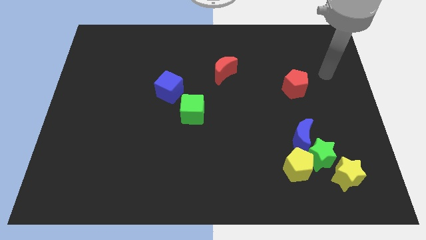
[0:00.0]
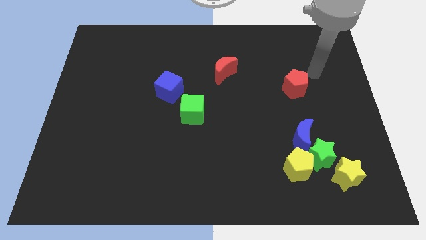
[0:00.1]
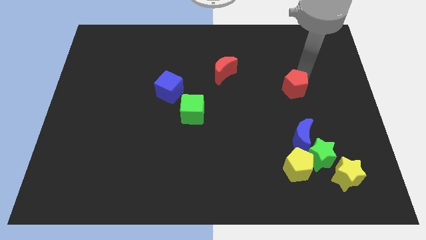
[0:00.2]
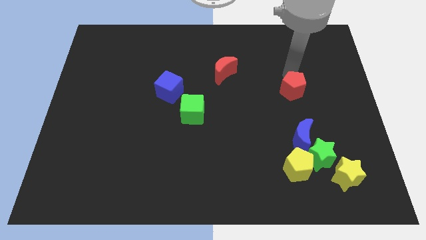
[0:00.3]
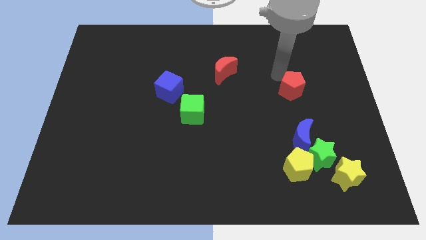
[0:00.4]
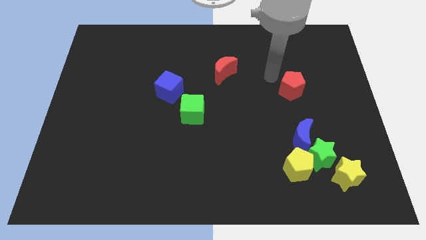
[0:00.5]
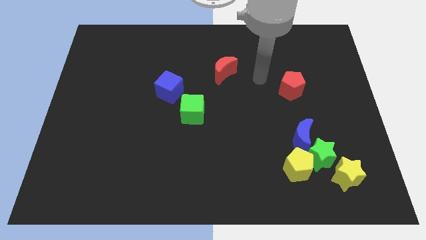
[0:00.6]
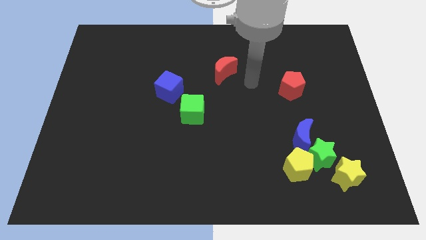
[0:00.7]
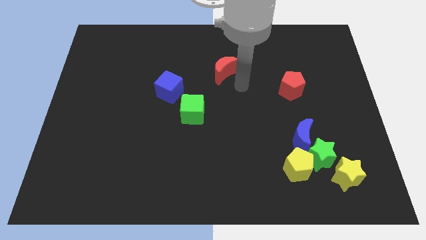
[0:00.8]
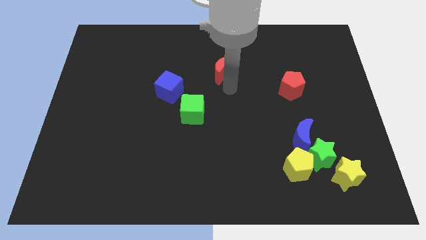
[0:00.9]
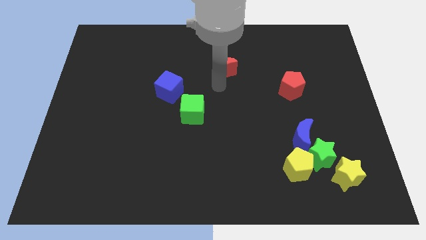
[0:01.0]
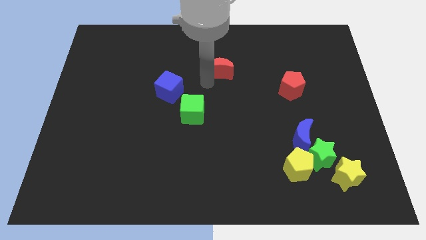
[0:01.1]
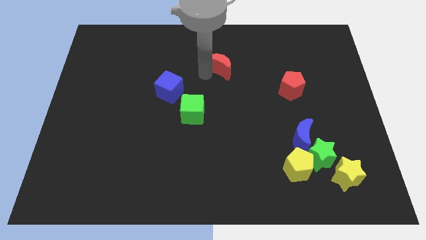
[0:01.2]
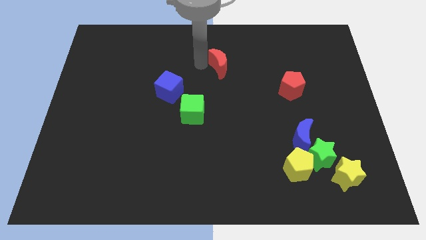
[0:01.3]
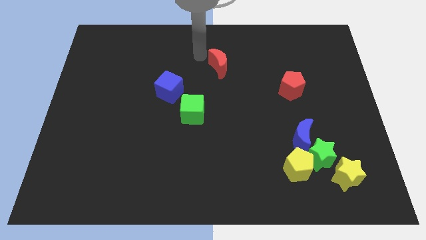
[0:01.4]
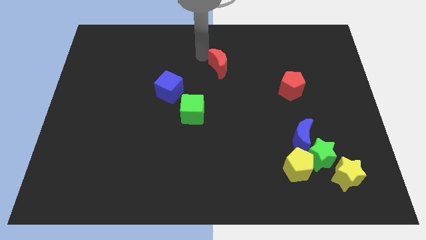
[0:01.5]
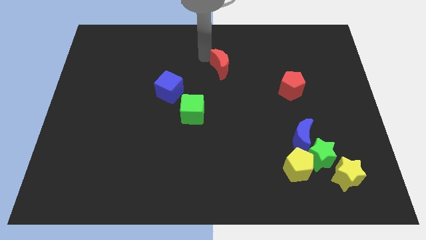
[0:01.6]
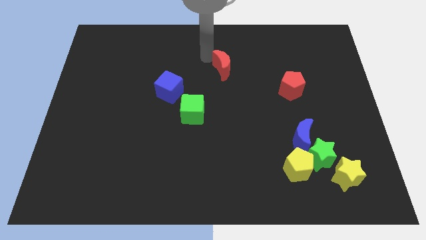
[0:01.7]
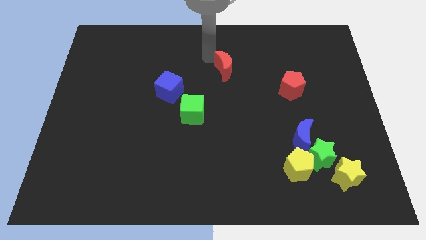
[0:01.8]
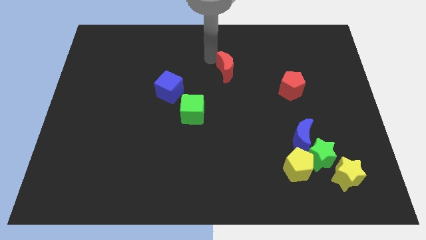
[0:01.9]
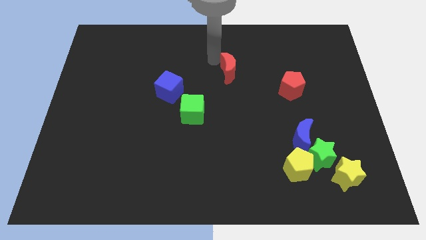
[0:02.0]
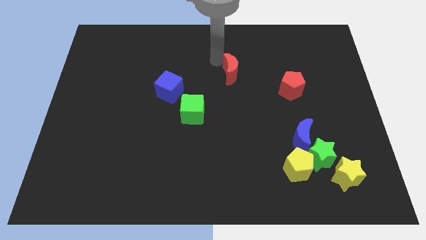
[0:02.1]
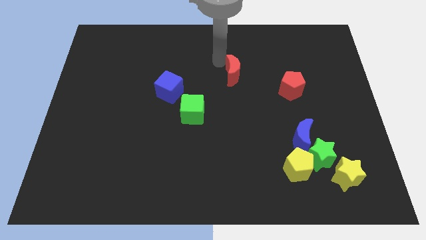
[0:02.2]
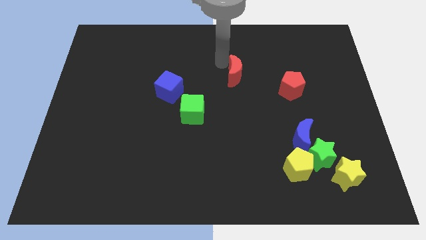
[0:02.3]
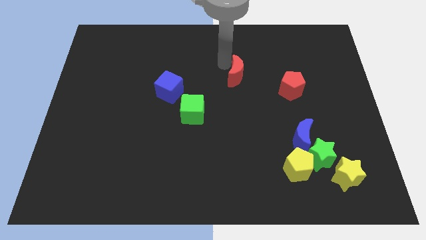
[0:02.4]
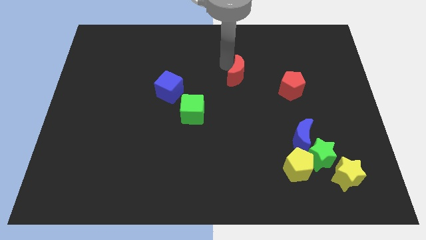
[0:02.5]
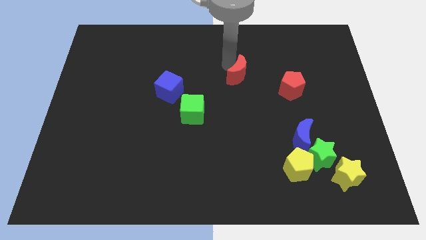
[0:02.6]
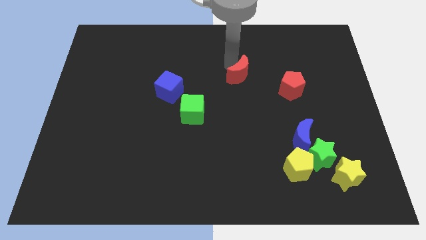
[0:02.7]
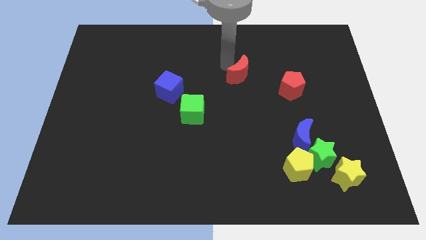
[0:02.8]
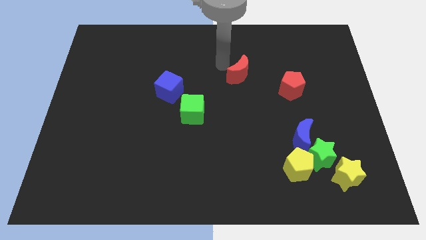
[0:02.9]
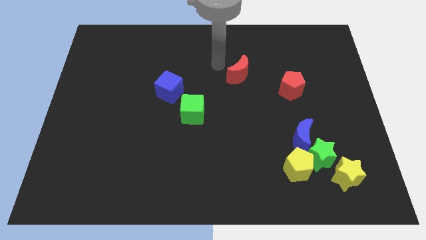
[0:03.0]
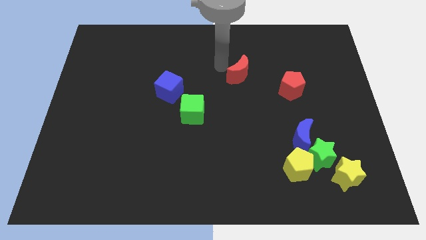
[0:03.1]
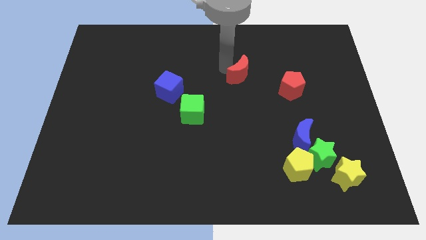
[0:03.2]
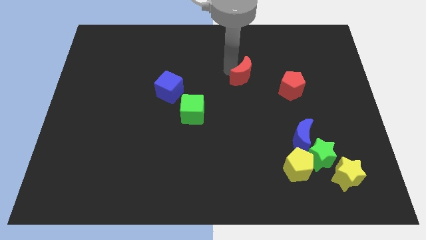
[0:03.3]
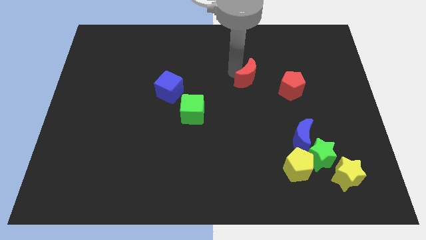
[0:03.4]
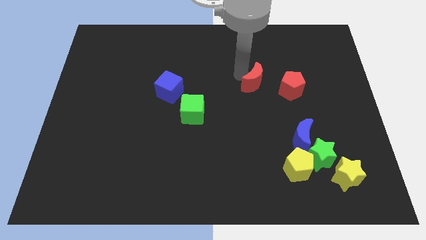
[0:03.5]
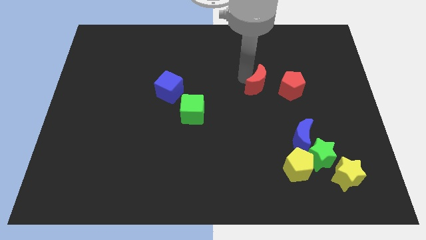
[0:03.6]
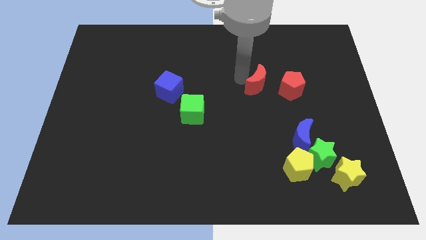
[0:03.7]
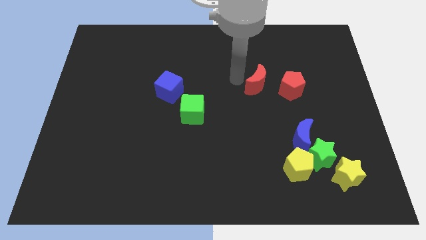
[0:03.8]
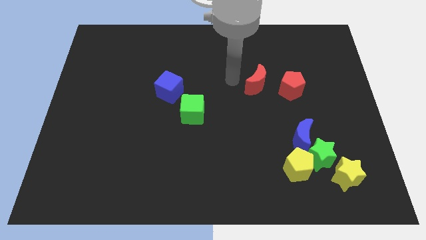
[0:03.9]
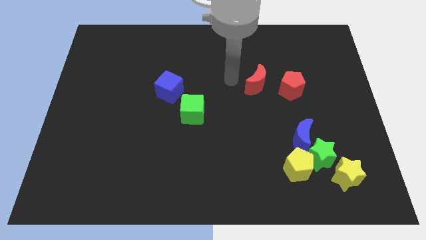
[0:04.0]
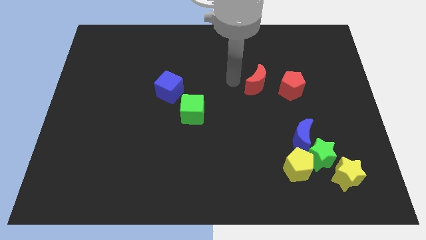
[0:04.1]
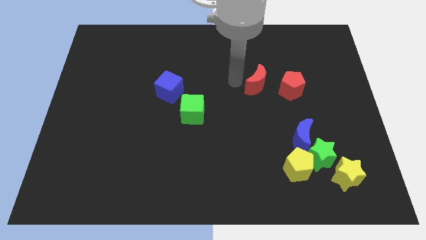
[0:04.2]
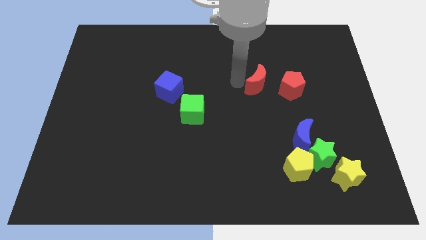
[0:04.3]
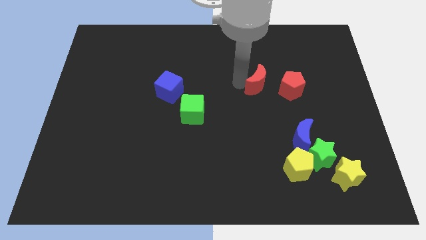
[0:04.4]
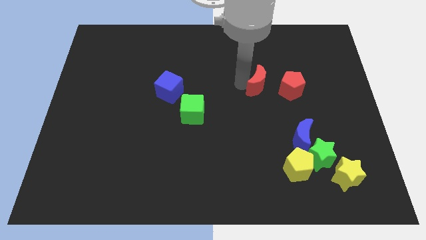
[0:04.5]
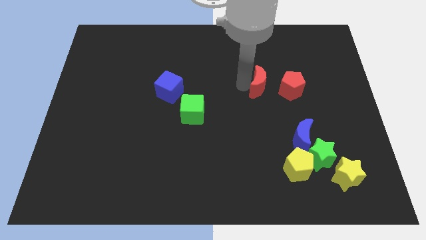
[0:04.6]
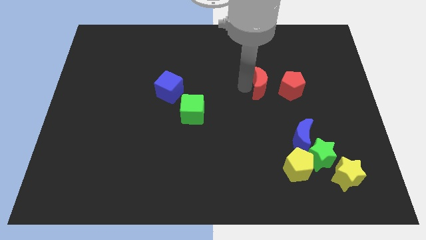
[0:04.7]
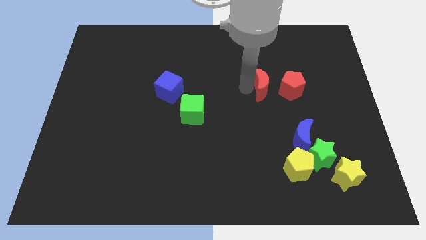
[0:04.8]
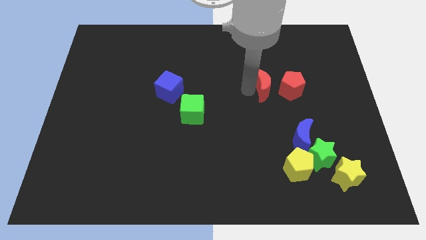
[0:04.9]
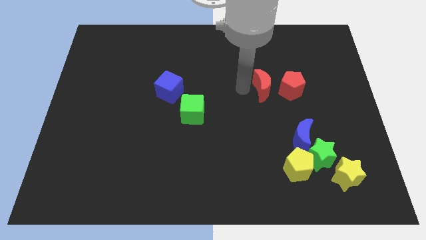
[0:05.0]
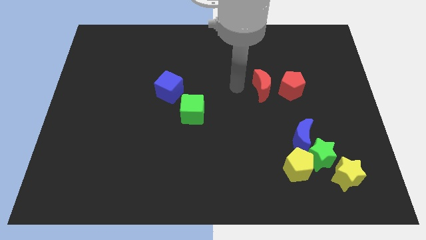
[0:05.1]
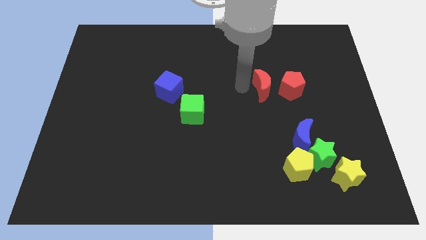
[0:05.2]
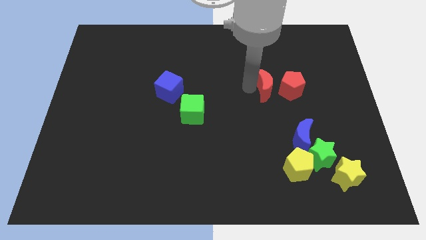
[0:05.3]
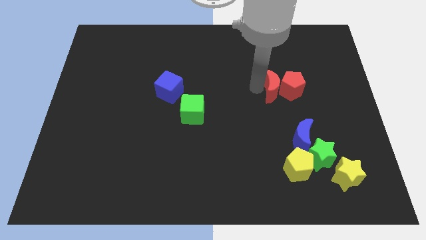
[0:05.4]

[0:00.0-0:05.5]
push the red moon to the red pentagon

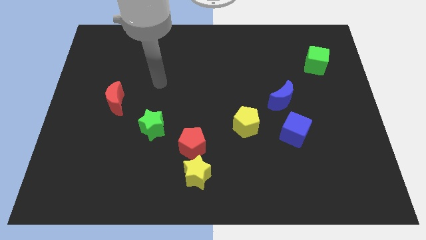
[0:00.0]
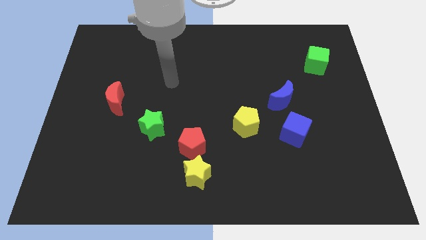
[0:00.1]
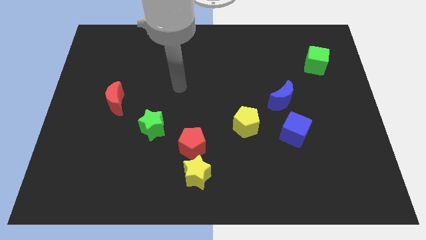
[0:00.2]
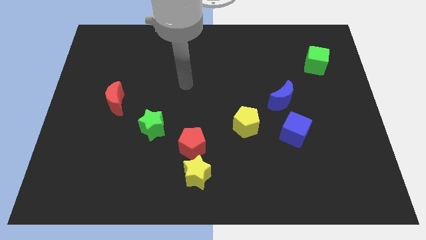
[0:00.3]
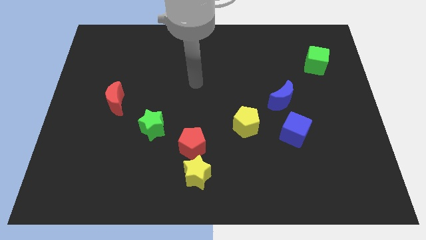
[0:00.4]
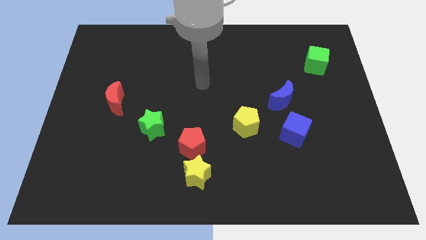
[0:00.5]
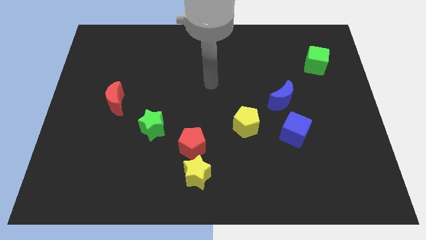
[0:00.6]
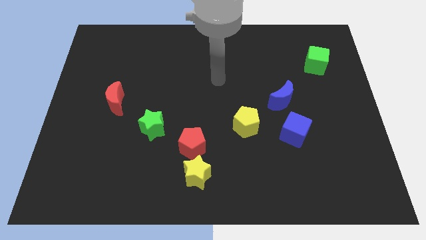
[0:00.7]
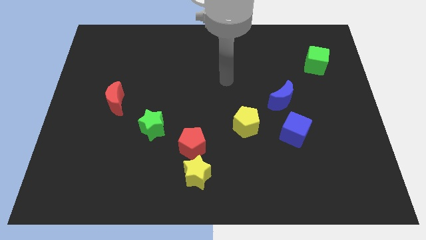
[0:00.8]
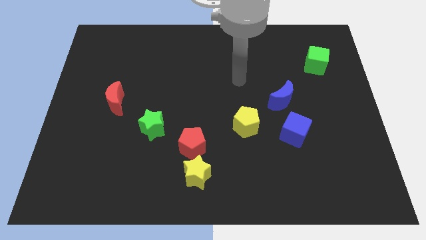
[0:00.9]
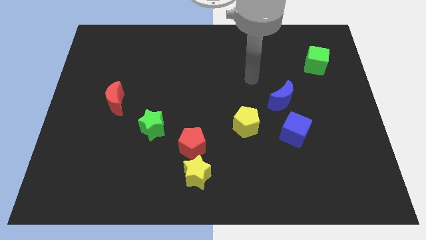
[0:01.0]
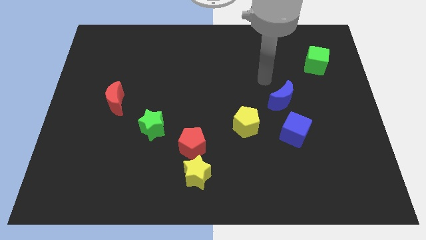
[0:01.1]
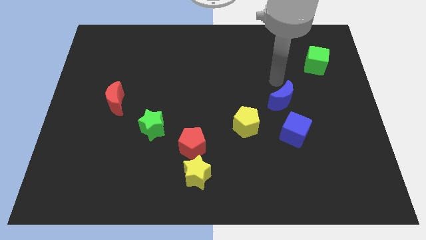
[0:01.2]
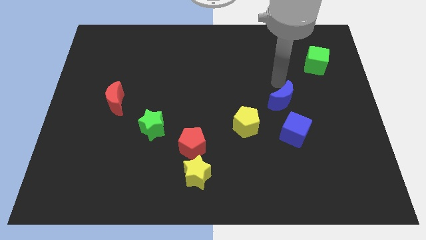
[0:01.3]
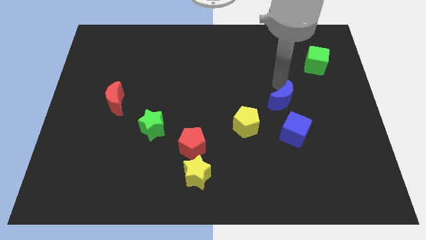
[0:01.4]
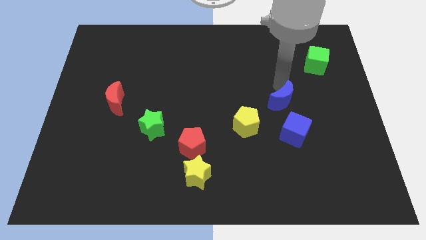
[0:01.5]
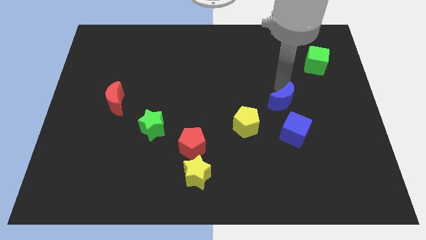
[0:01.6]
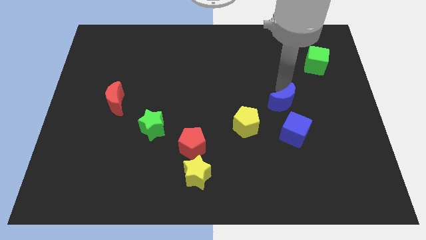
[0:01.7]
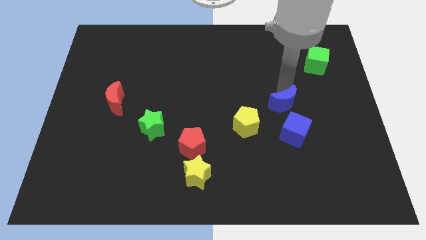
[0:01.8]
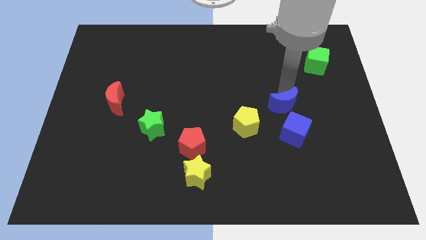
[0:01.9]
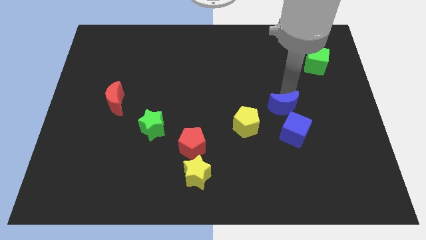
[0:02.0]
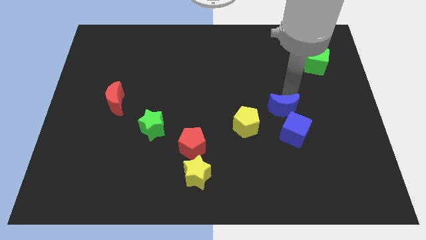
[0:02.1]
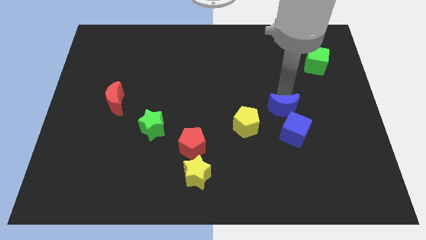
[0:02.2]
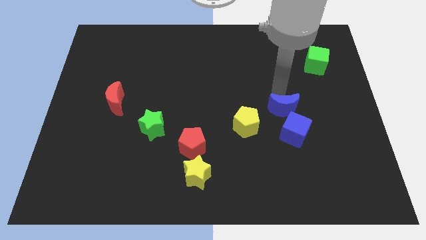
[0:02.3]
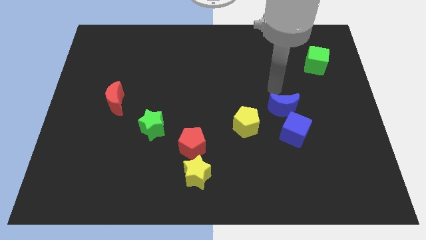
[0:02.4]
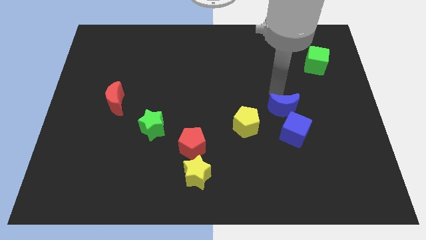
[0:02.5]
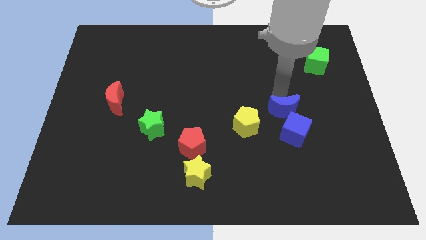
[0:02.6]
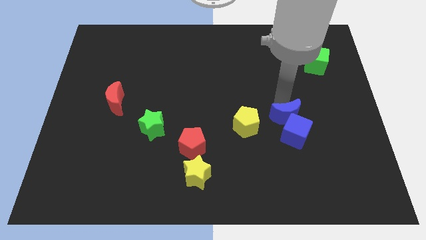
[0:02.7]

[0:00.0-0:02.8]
move the blue moon towards the blue cube
